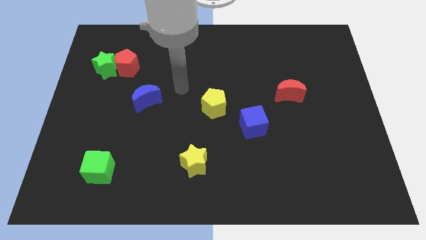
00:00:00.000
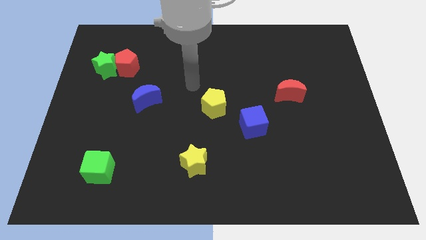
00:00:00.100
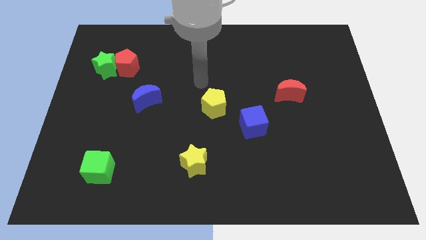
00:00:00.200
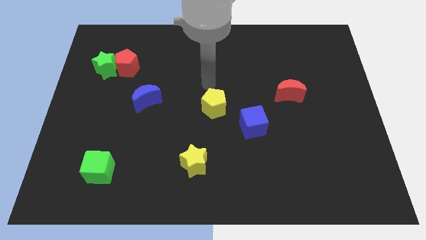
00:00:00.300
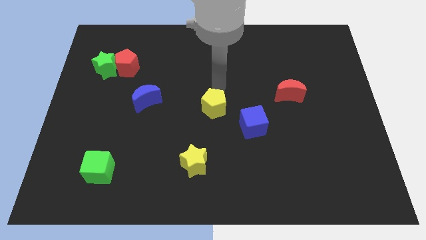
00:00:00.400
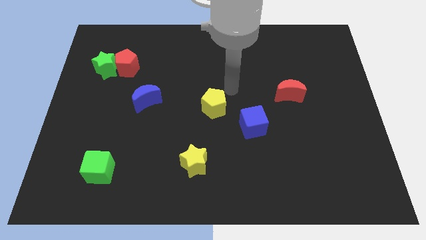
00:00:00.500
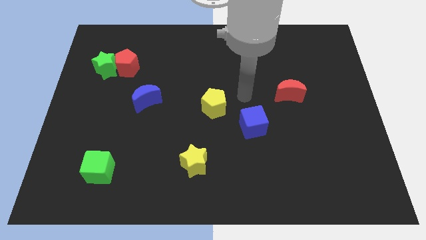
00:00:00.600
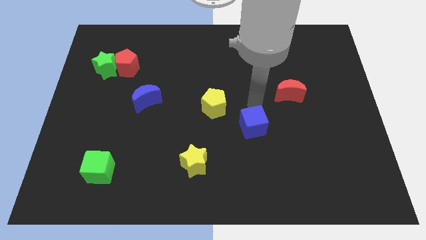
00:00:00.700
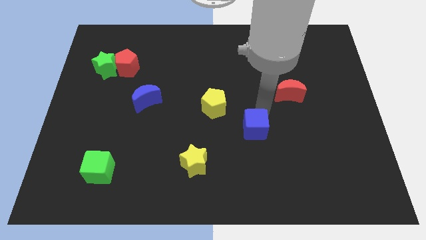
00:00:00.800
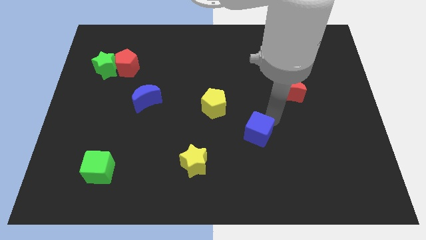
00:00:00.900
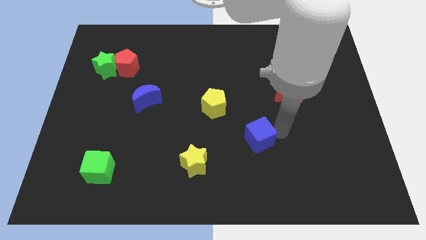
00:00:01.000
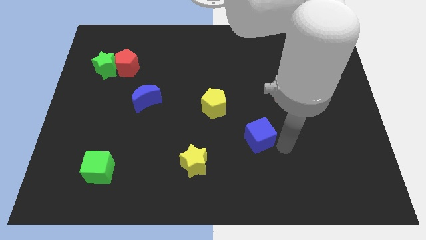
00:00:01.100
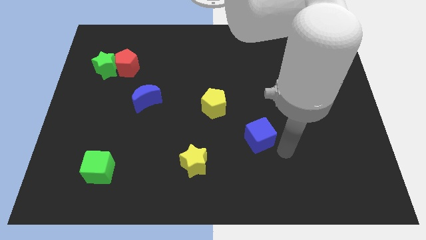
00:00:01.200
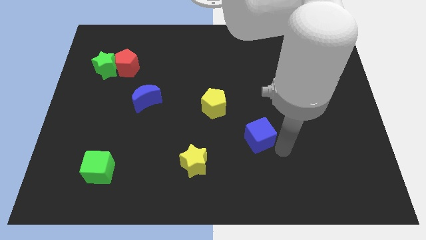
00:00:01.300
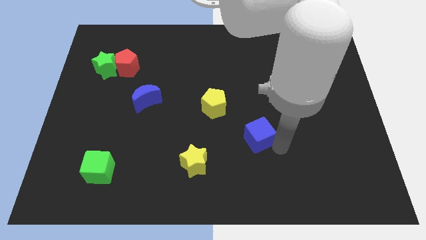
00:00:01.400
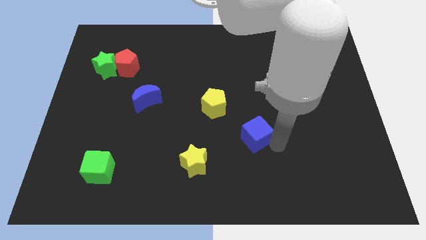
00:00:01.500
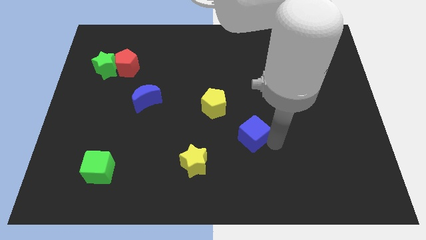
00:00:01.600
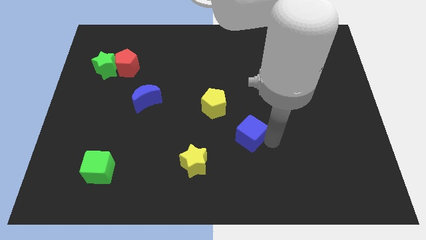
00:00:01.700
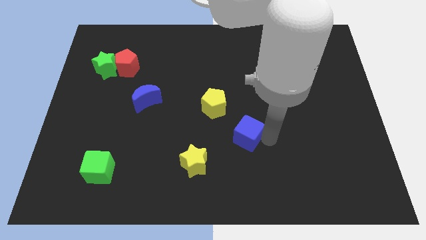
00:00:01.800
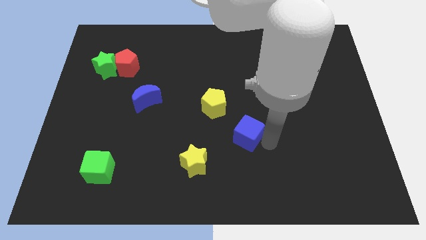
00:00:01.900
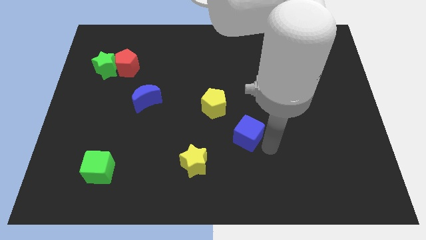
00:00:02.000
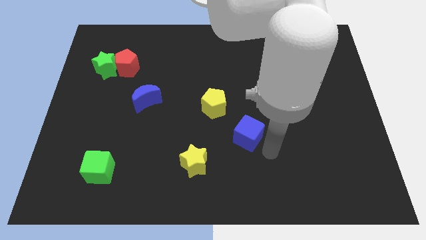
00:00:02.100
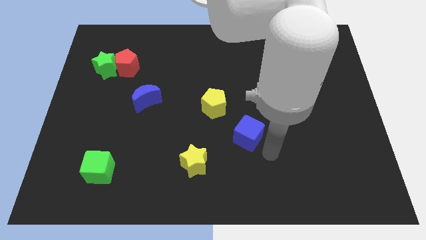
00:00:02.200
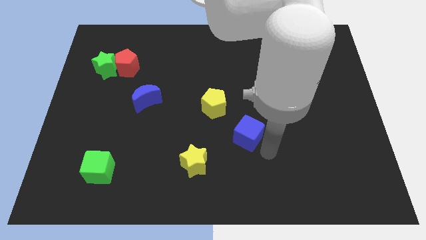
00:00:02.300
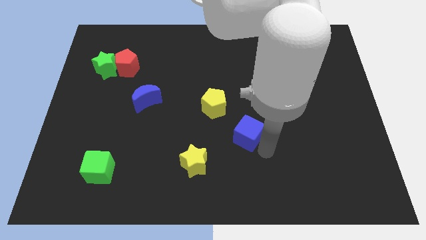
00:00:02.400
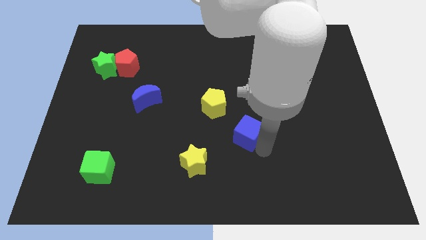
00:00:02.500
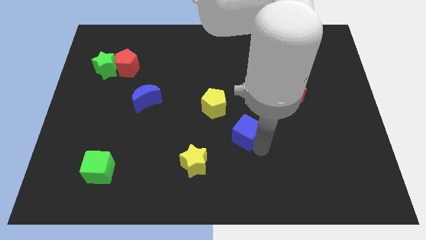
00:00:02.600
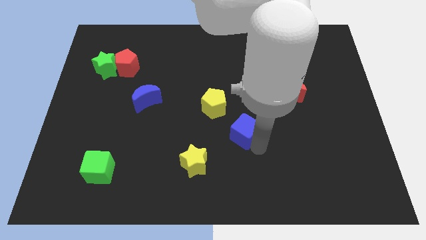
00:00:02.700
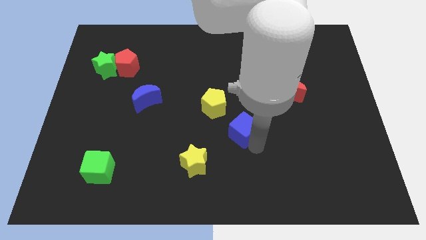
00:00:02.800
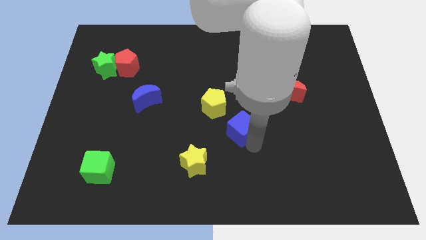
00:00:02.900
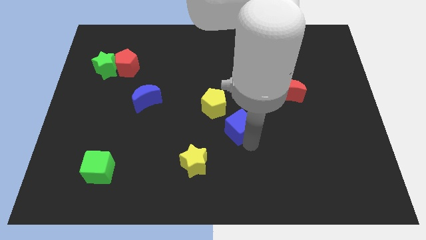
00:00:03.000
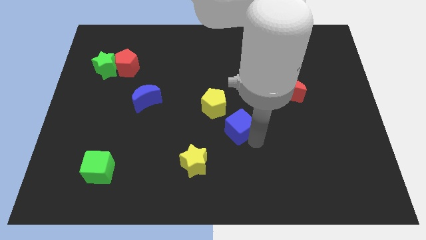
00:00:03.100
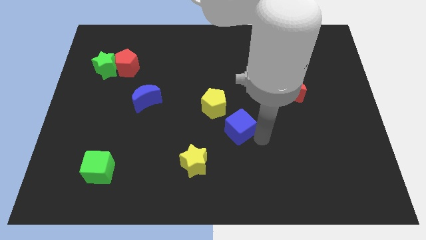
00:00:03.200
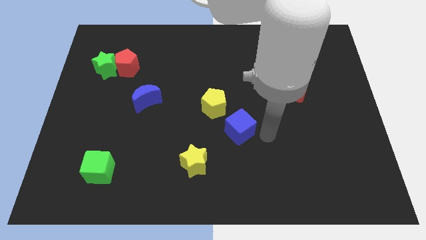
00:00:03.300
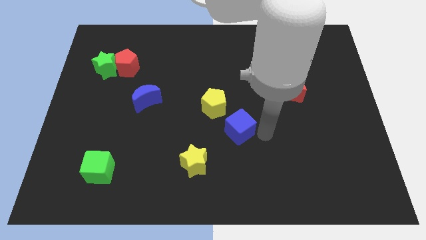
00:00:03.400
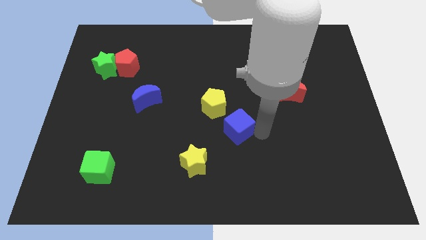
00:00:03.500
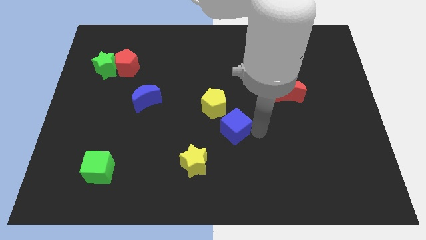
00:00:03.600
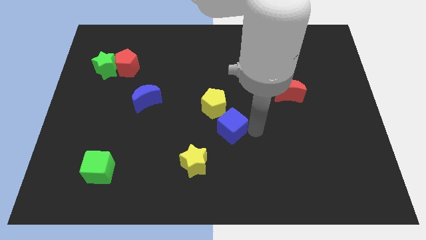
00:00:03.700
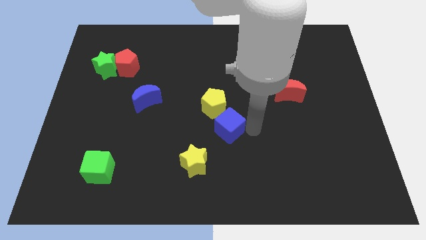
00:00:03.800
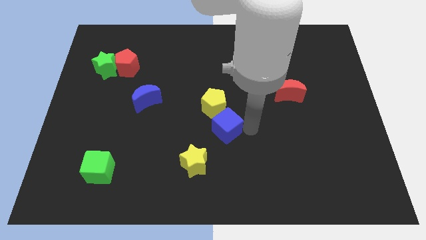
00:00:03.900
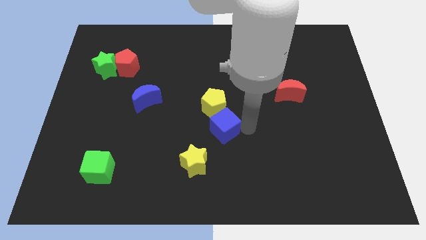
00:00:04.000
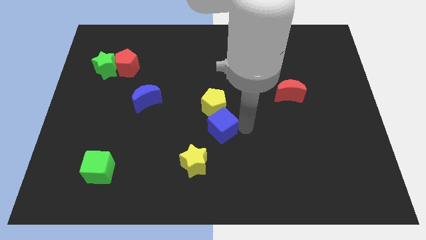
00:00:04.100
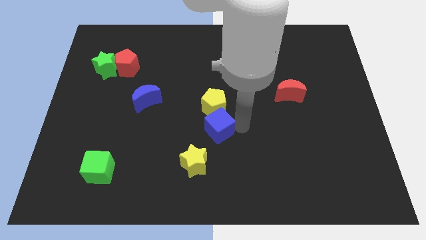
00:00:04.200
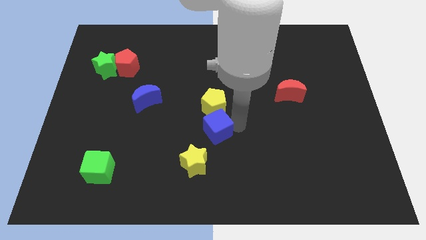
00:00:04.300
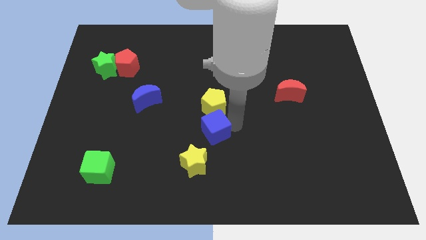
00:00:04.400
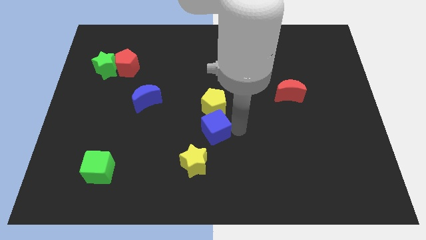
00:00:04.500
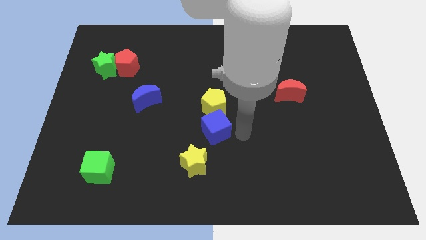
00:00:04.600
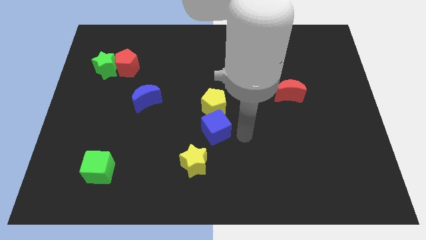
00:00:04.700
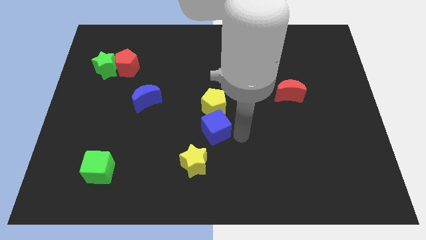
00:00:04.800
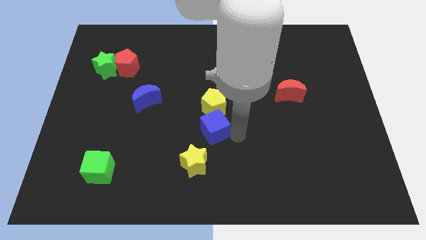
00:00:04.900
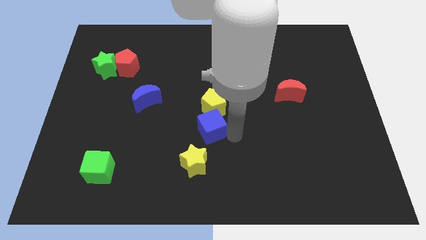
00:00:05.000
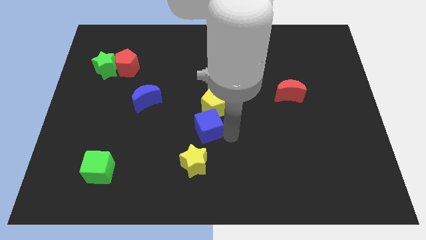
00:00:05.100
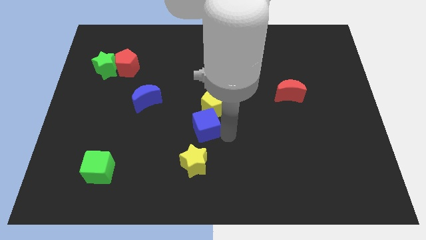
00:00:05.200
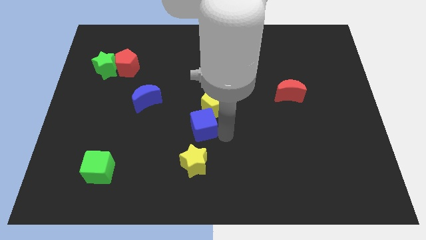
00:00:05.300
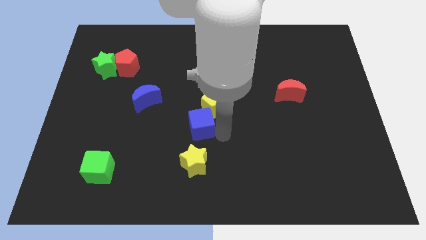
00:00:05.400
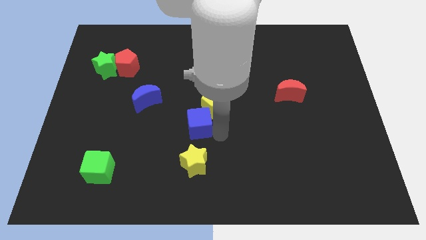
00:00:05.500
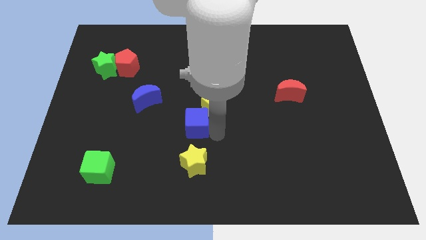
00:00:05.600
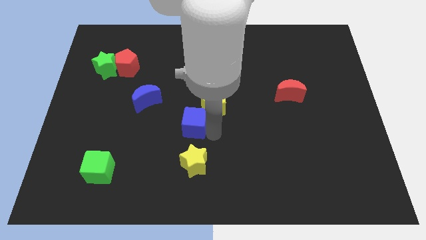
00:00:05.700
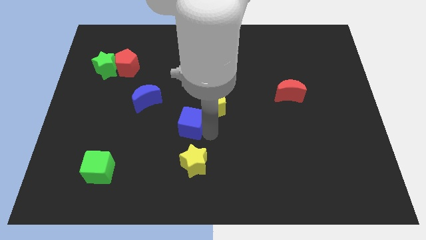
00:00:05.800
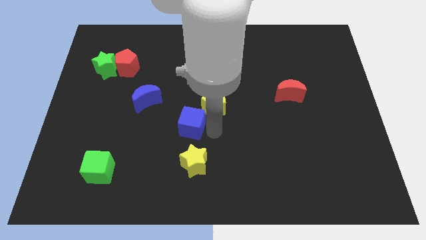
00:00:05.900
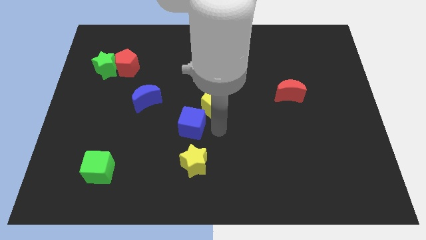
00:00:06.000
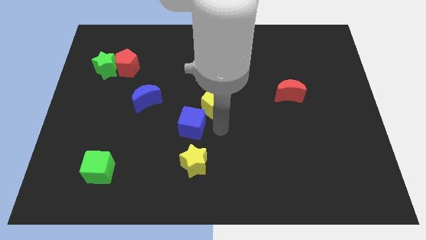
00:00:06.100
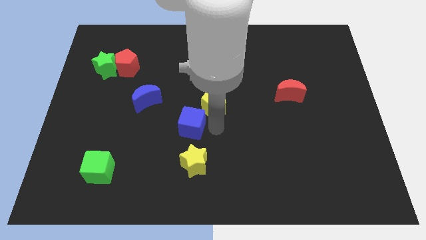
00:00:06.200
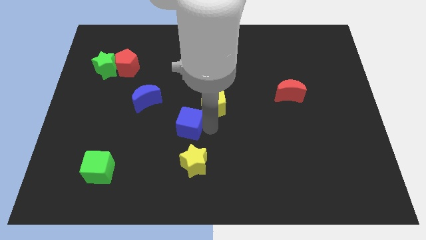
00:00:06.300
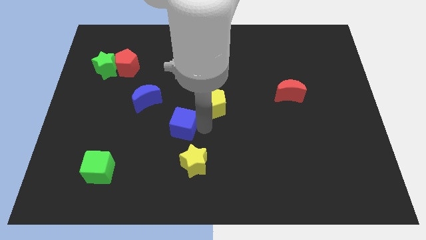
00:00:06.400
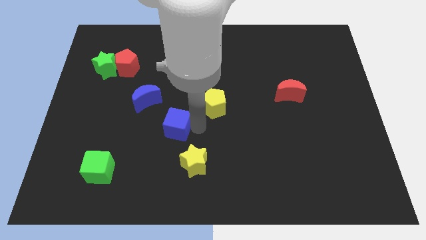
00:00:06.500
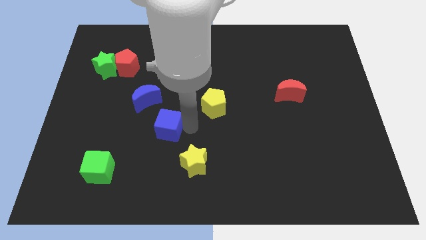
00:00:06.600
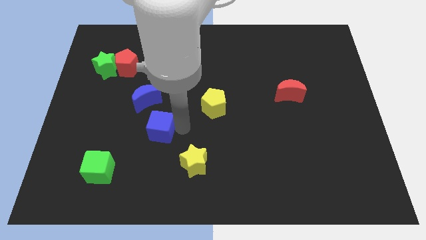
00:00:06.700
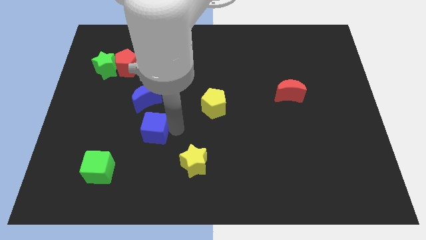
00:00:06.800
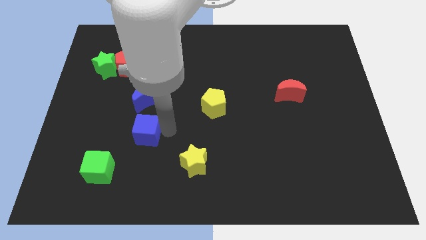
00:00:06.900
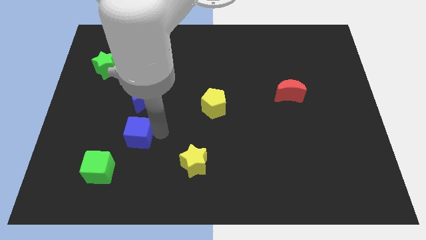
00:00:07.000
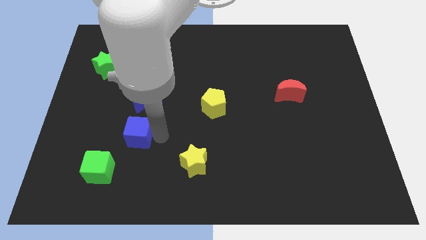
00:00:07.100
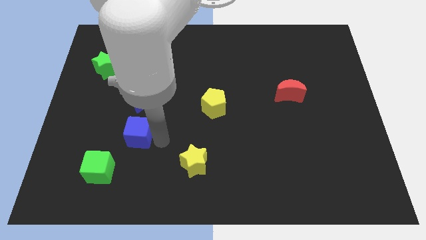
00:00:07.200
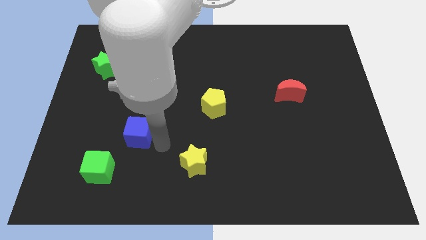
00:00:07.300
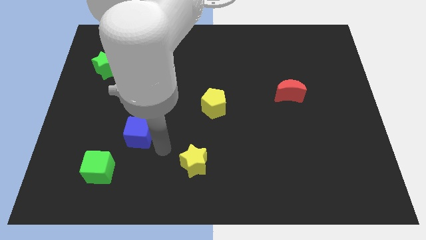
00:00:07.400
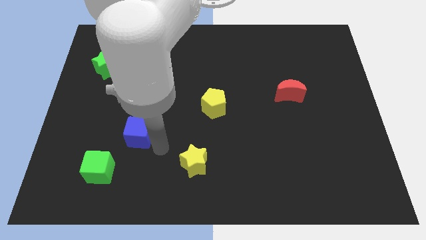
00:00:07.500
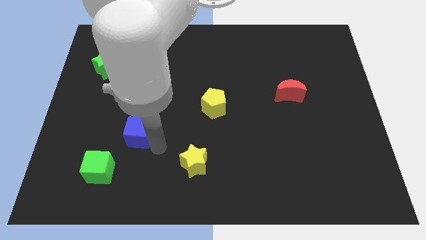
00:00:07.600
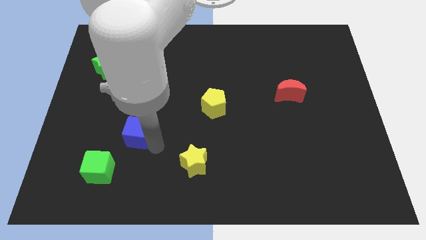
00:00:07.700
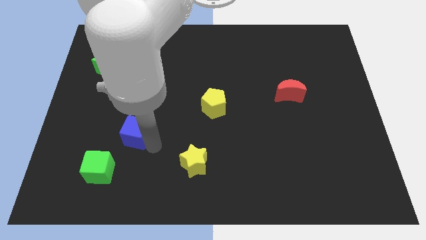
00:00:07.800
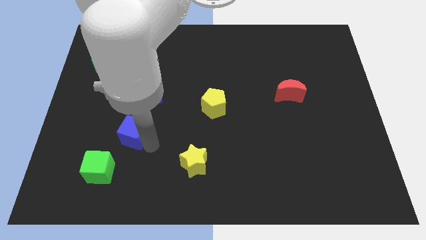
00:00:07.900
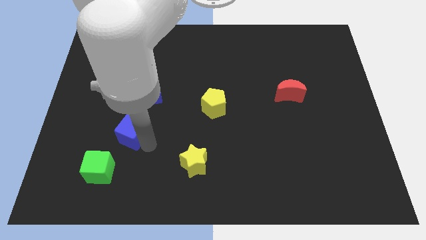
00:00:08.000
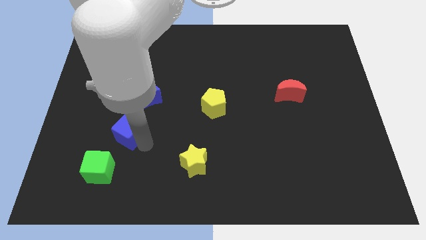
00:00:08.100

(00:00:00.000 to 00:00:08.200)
push the blue cube to the top of the green cube
